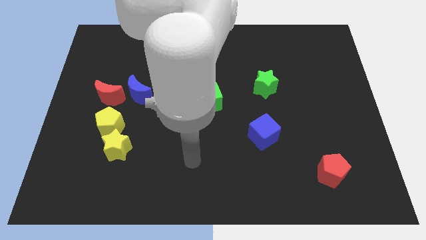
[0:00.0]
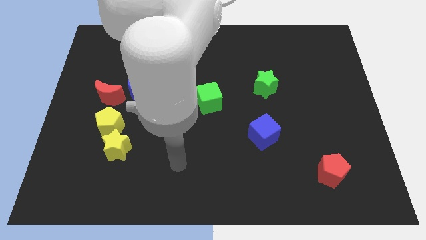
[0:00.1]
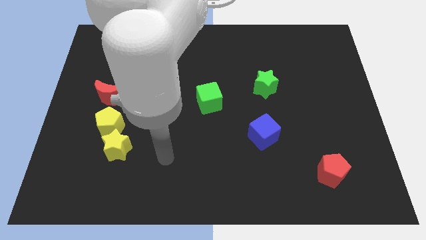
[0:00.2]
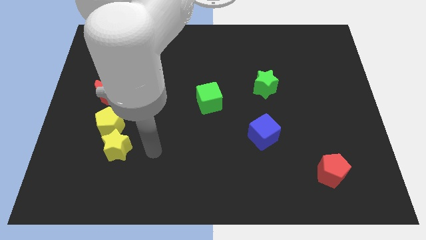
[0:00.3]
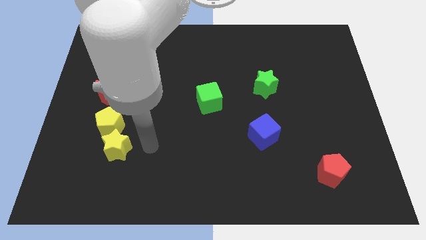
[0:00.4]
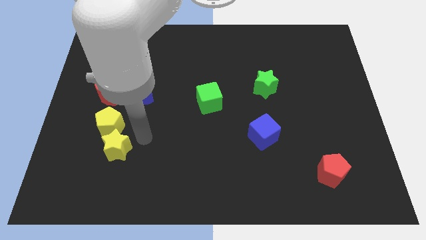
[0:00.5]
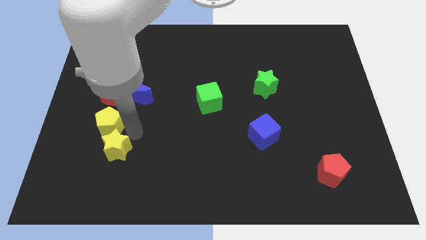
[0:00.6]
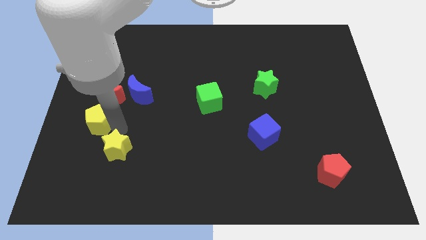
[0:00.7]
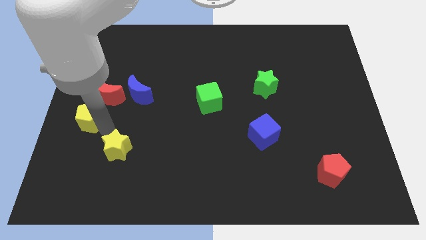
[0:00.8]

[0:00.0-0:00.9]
move the yellow star away from the yellow pentagon

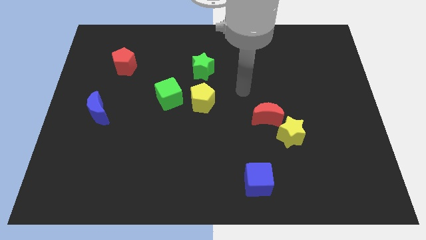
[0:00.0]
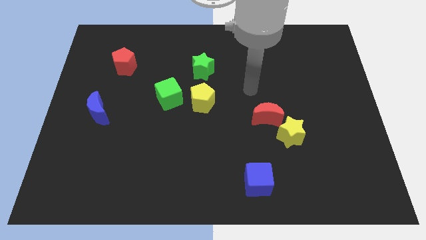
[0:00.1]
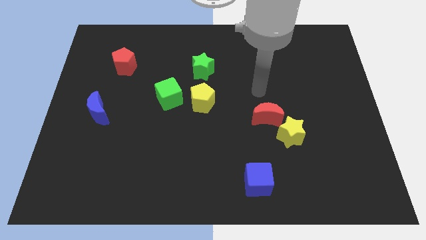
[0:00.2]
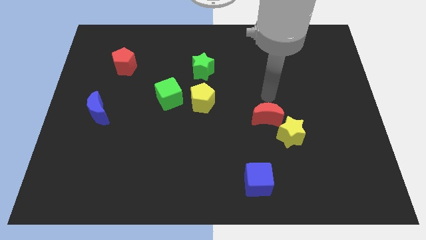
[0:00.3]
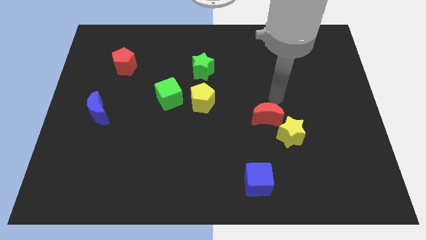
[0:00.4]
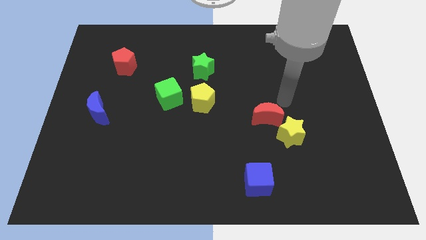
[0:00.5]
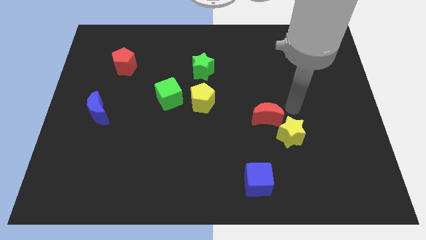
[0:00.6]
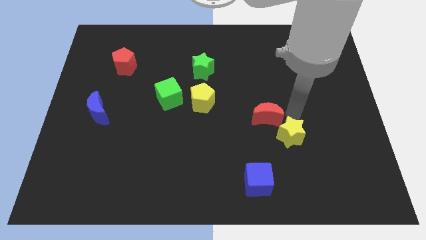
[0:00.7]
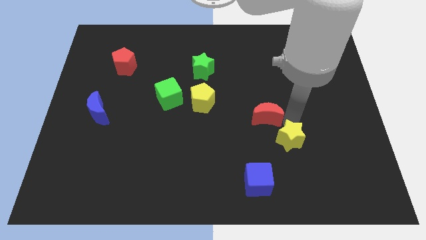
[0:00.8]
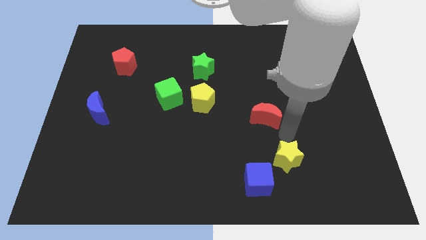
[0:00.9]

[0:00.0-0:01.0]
separate the red moon from the yellow star

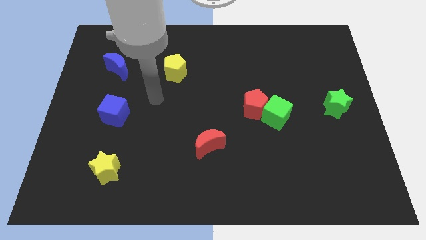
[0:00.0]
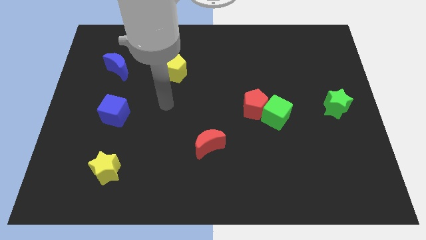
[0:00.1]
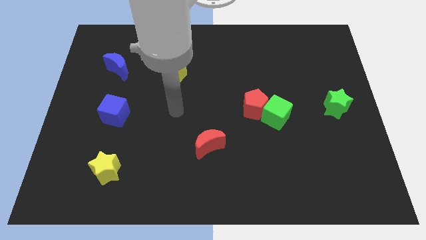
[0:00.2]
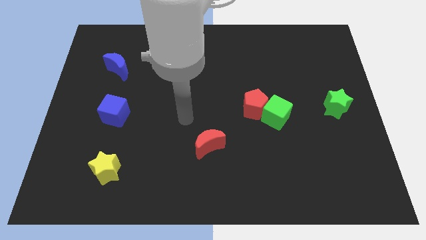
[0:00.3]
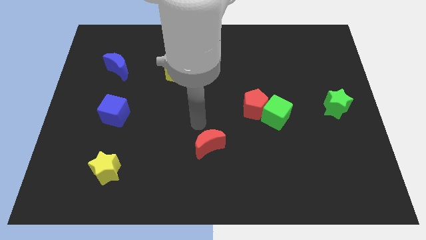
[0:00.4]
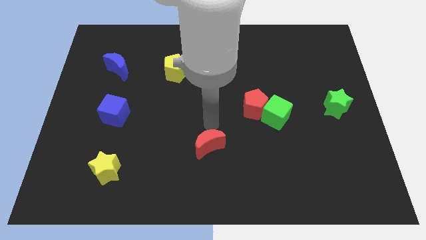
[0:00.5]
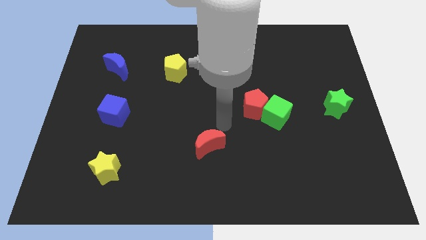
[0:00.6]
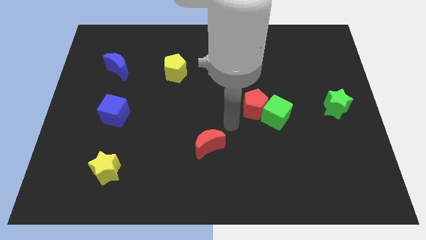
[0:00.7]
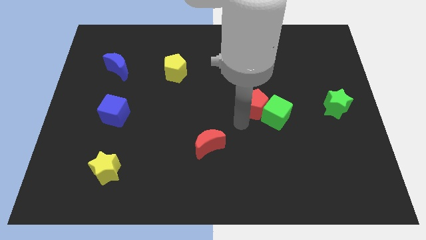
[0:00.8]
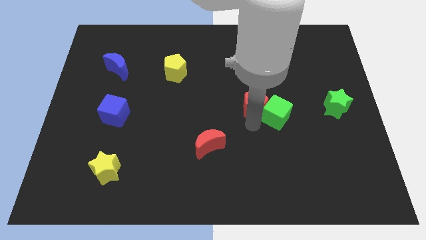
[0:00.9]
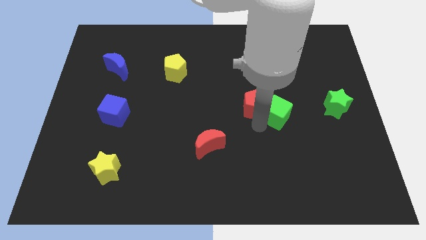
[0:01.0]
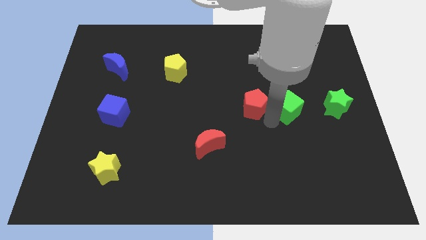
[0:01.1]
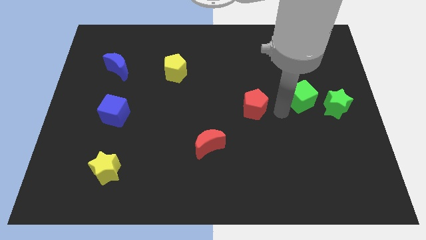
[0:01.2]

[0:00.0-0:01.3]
separate the red pentagon from the green cube

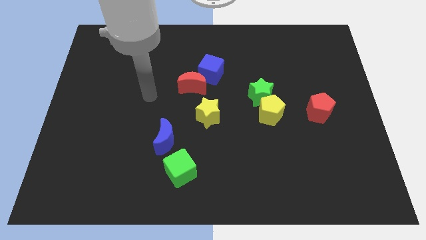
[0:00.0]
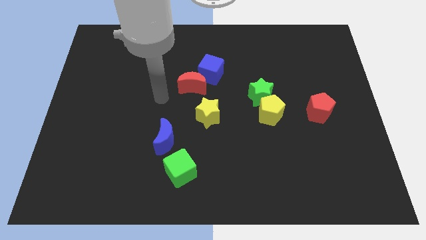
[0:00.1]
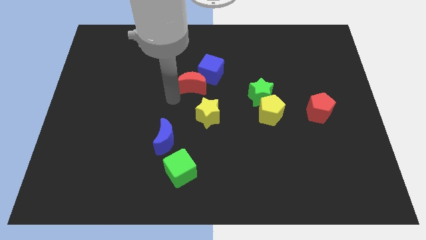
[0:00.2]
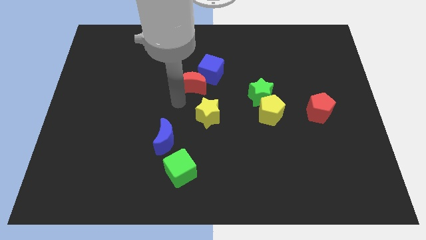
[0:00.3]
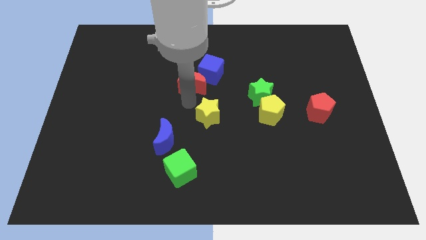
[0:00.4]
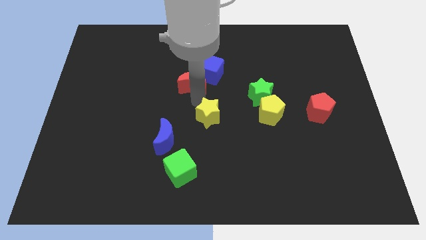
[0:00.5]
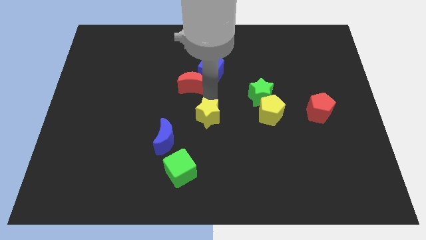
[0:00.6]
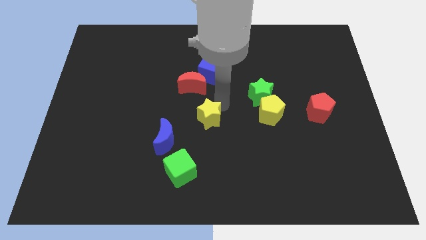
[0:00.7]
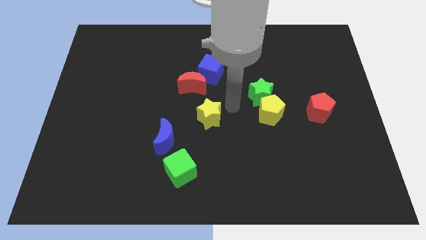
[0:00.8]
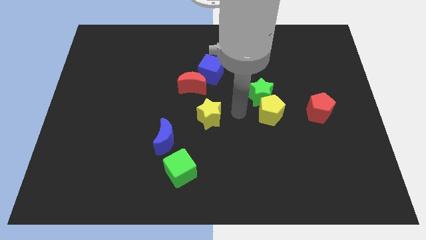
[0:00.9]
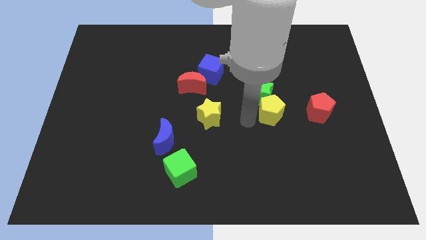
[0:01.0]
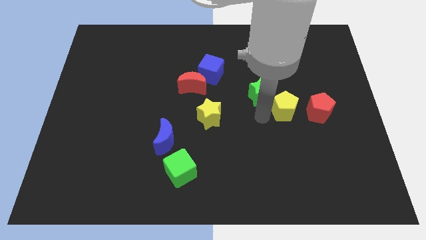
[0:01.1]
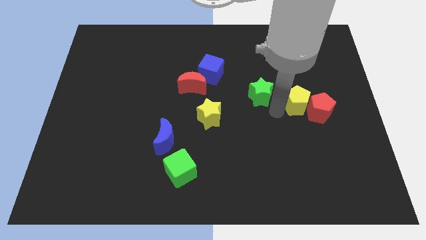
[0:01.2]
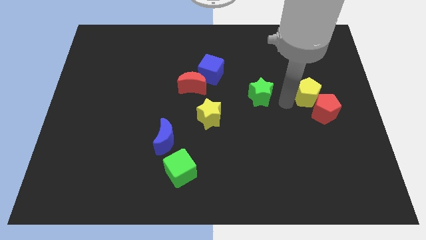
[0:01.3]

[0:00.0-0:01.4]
separate the green star from the yellow pentagon

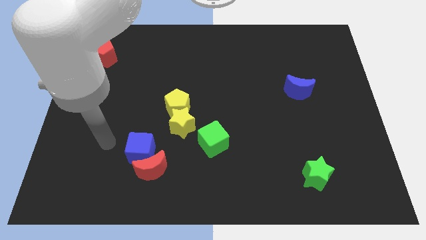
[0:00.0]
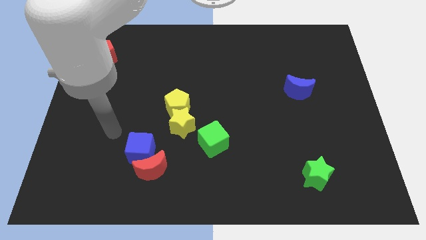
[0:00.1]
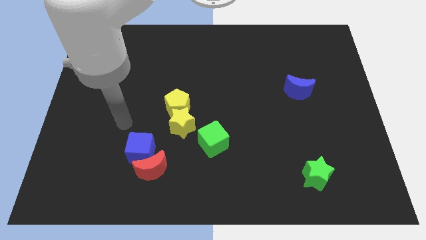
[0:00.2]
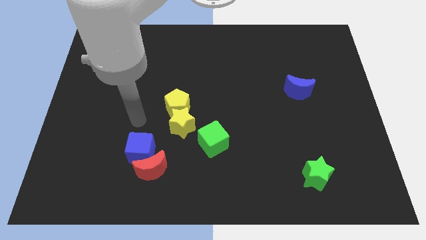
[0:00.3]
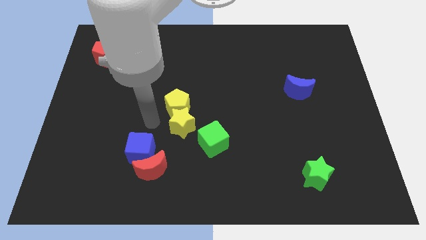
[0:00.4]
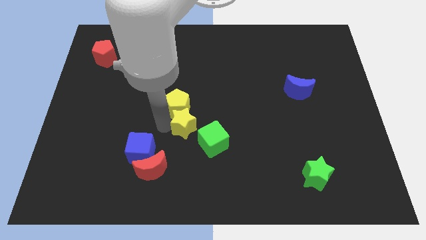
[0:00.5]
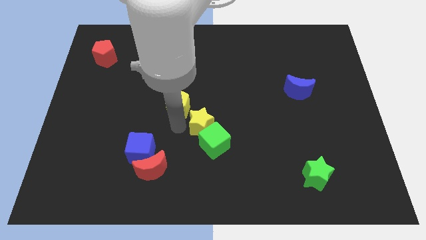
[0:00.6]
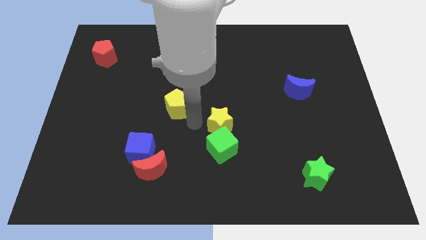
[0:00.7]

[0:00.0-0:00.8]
pull the yellow pentagon apart from the yellow star

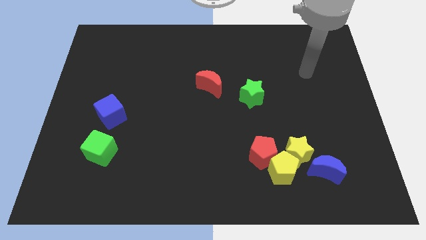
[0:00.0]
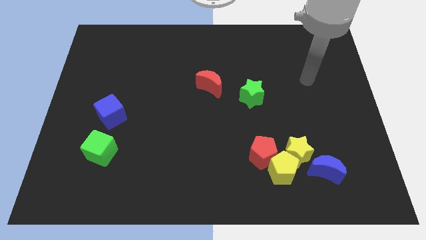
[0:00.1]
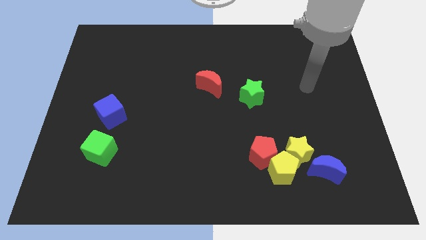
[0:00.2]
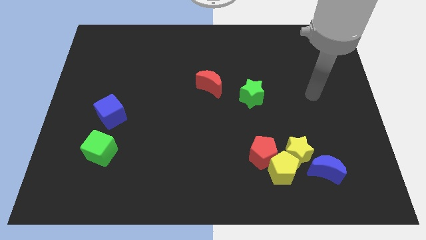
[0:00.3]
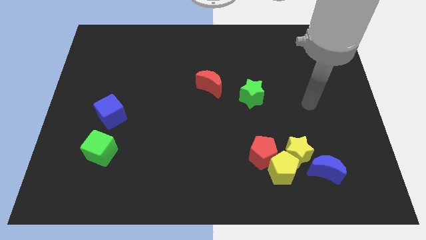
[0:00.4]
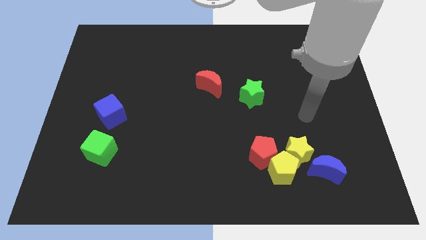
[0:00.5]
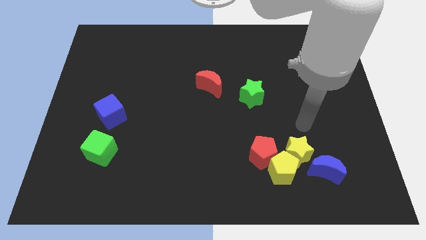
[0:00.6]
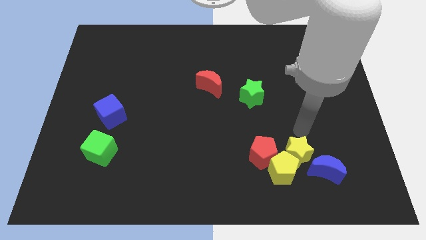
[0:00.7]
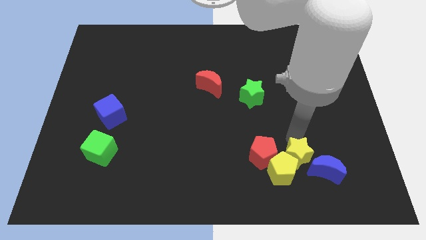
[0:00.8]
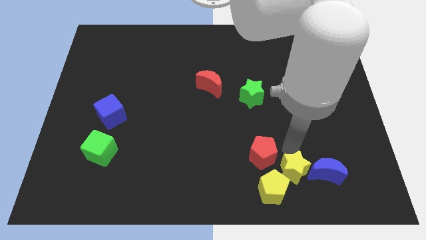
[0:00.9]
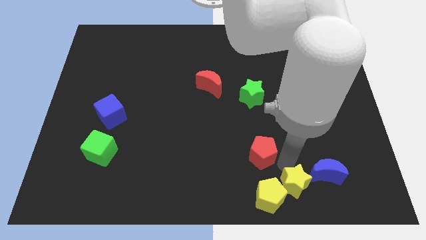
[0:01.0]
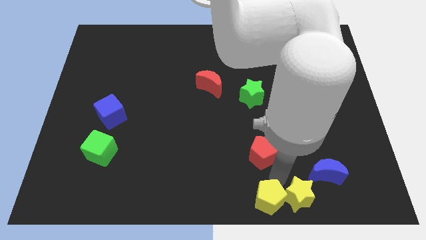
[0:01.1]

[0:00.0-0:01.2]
pull the red pentagon apart from the yellow pentagon and yellow star

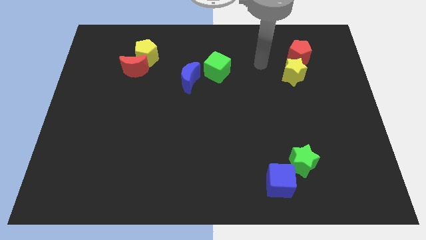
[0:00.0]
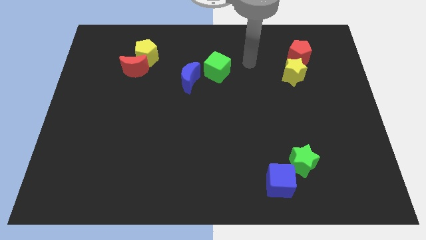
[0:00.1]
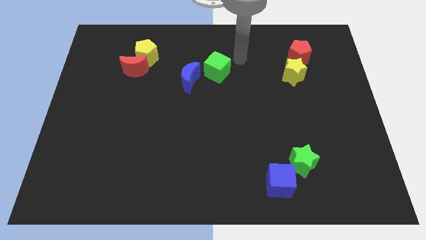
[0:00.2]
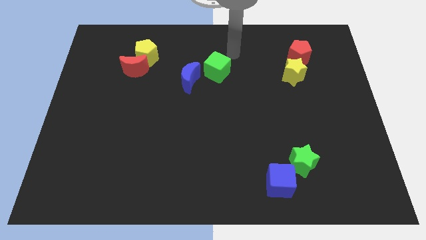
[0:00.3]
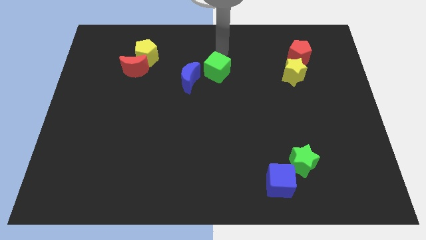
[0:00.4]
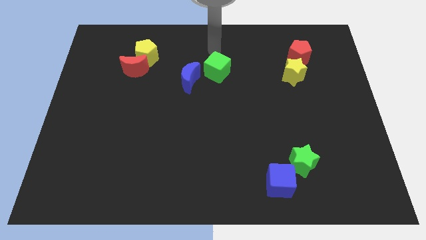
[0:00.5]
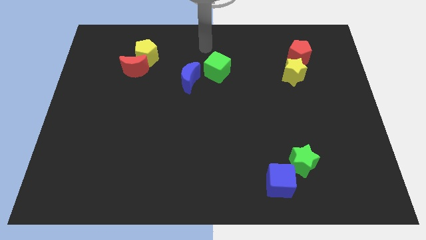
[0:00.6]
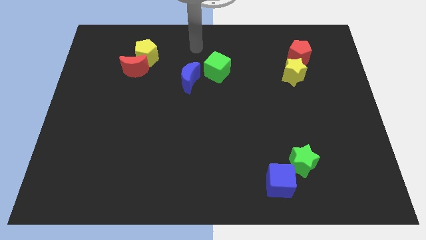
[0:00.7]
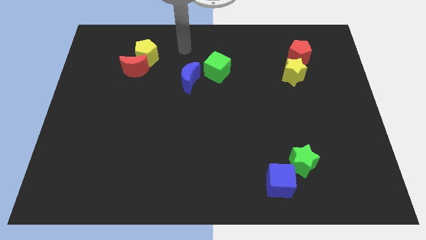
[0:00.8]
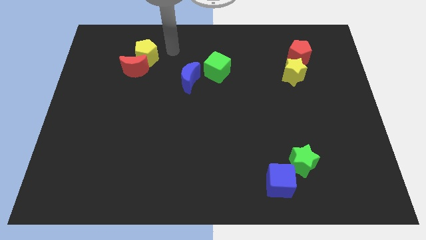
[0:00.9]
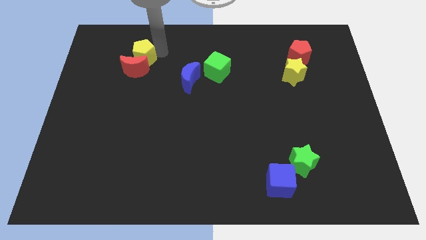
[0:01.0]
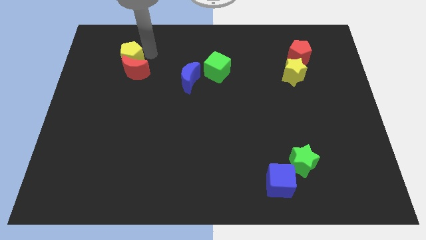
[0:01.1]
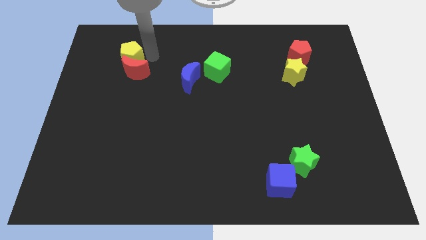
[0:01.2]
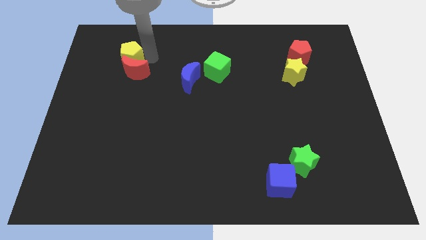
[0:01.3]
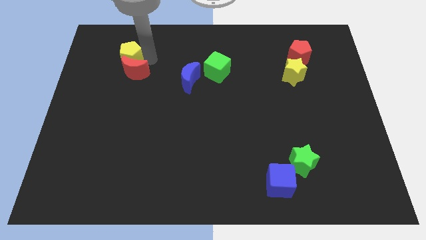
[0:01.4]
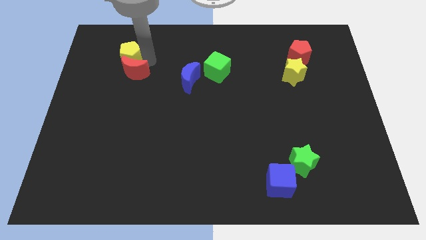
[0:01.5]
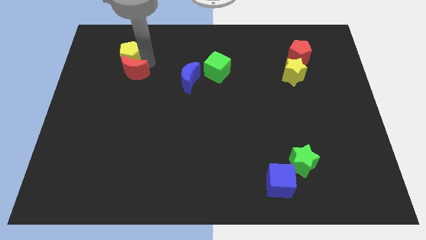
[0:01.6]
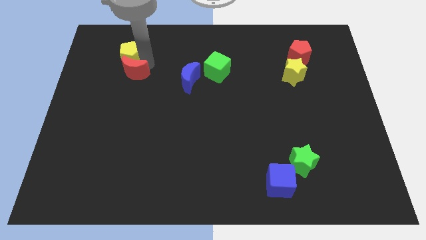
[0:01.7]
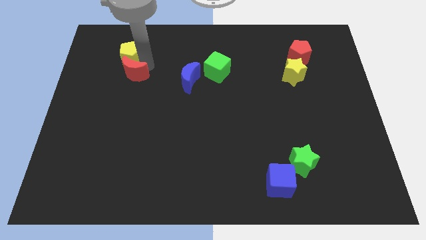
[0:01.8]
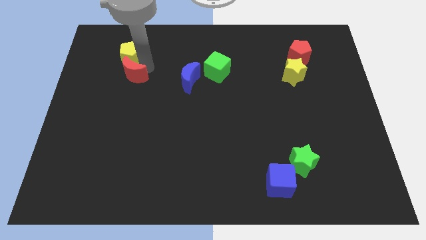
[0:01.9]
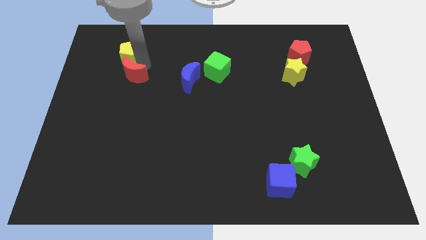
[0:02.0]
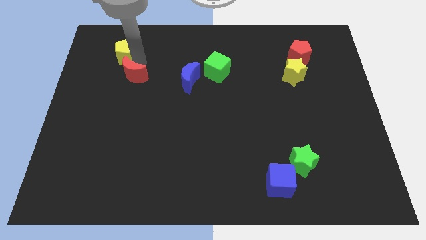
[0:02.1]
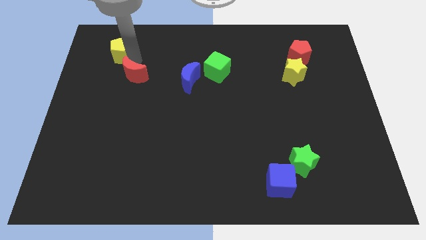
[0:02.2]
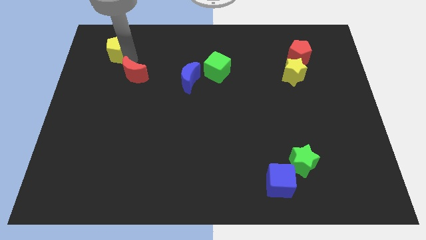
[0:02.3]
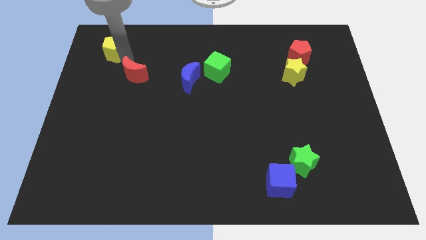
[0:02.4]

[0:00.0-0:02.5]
pull the red moon apart from the yellow pentagon

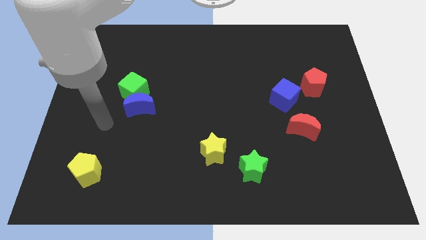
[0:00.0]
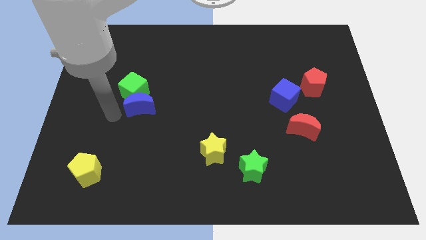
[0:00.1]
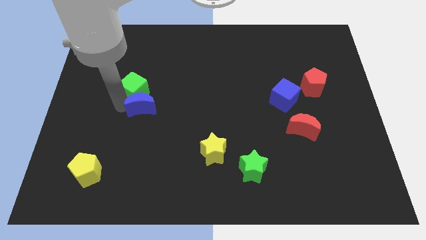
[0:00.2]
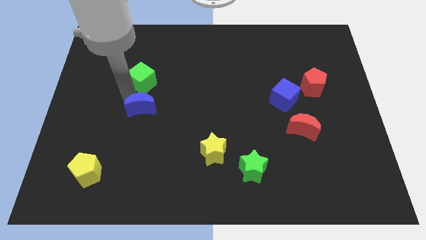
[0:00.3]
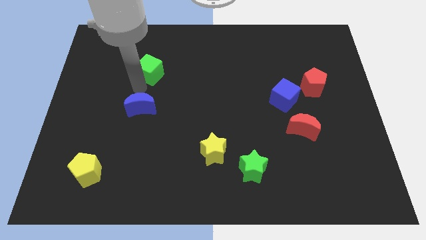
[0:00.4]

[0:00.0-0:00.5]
separate the blue moon from the green cube
